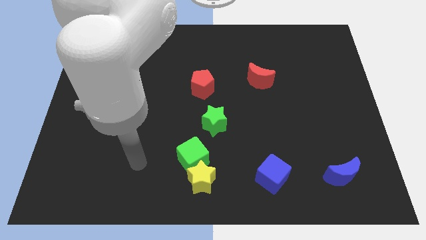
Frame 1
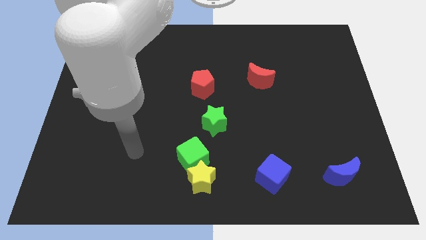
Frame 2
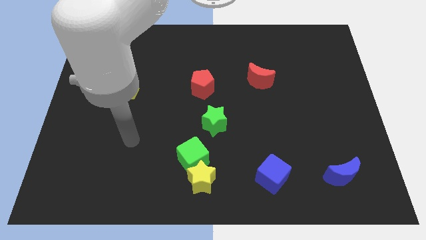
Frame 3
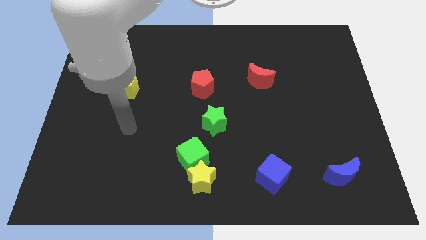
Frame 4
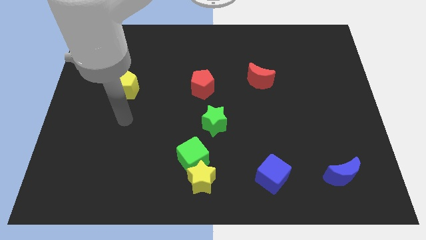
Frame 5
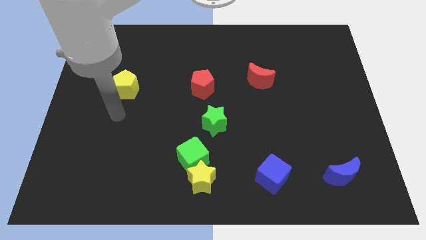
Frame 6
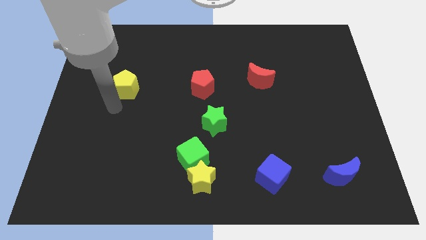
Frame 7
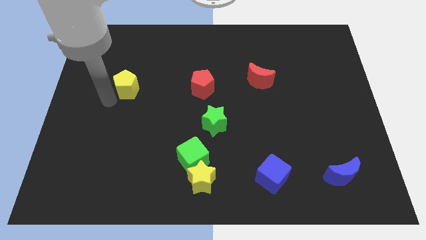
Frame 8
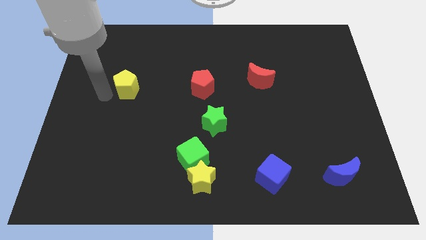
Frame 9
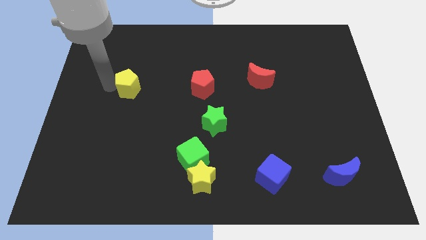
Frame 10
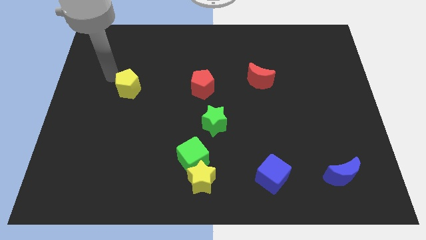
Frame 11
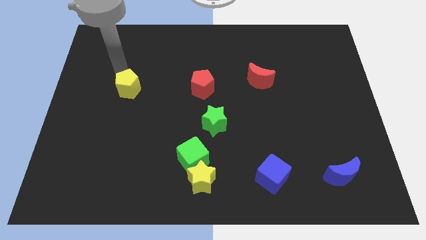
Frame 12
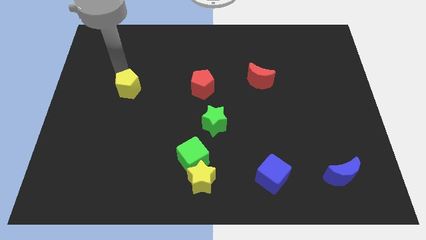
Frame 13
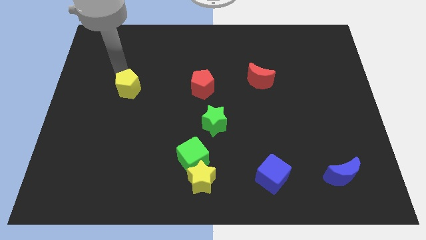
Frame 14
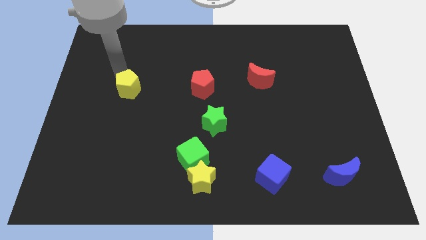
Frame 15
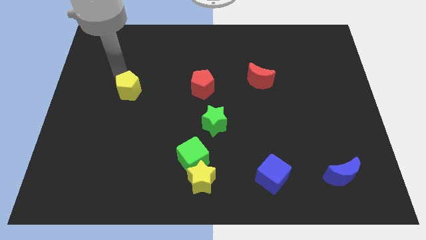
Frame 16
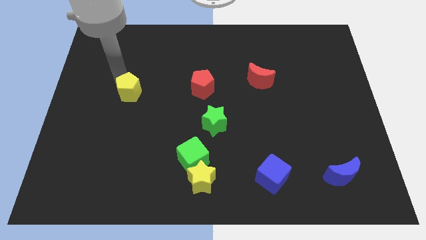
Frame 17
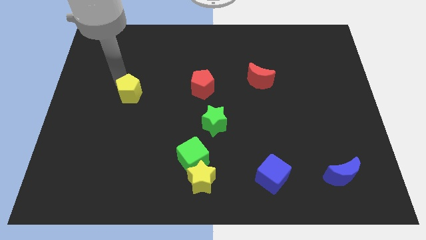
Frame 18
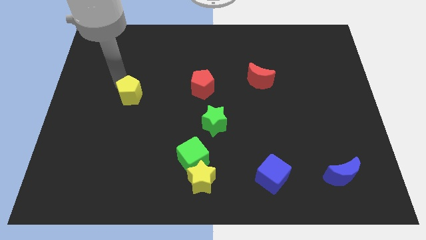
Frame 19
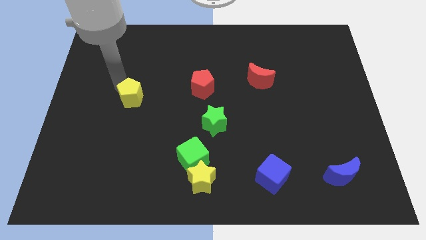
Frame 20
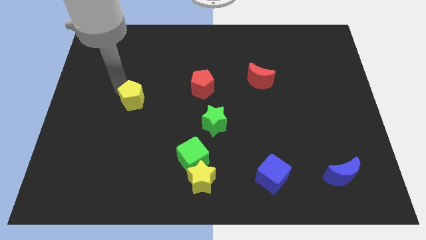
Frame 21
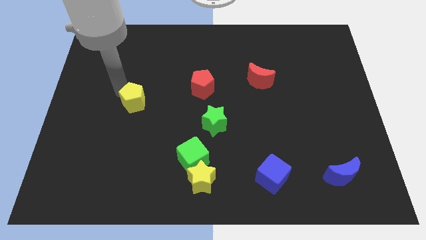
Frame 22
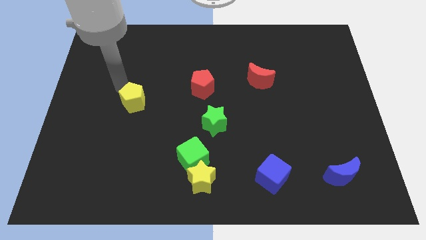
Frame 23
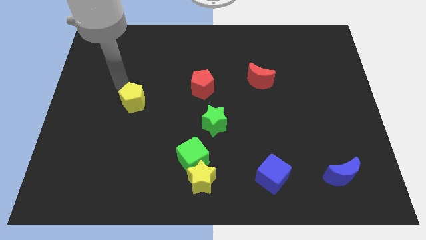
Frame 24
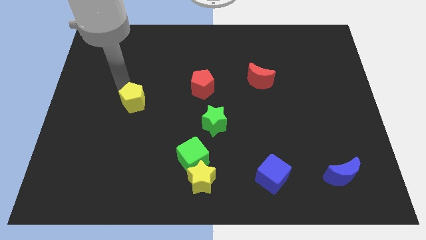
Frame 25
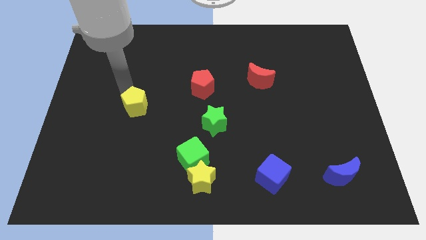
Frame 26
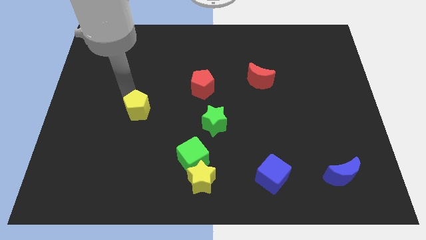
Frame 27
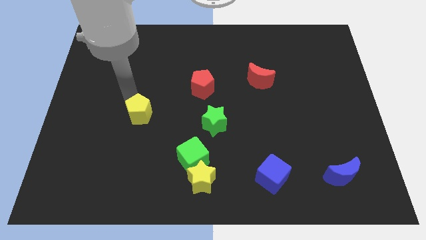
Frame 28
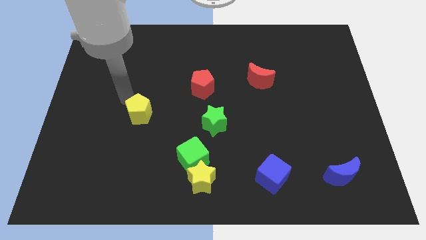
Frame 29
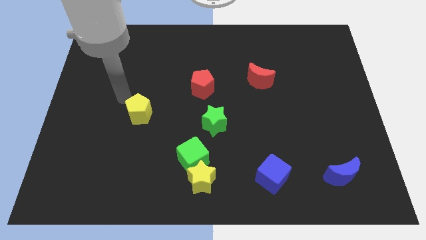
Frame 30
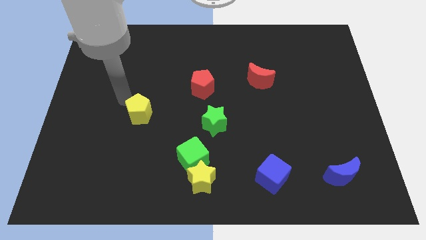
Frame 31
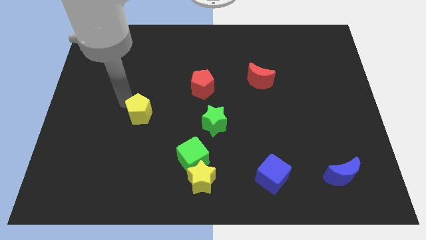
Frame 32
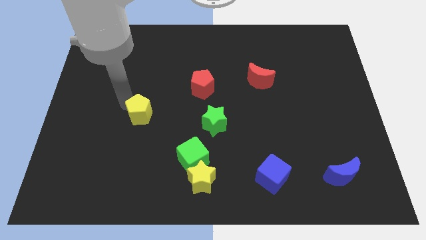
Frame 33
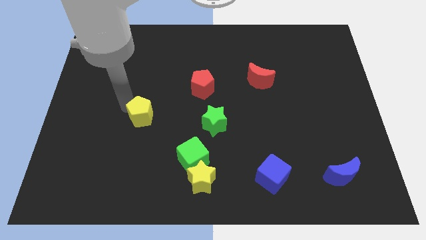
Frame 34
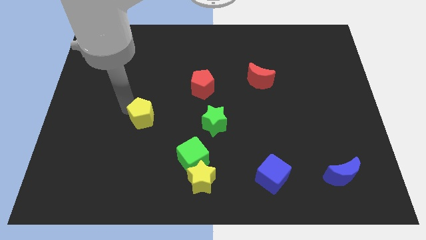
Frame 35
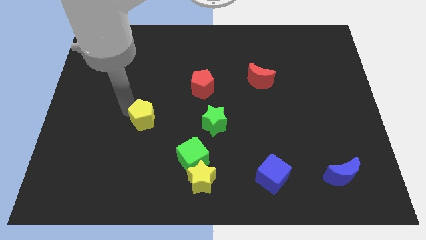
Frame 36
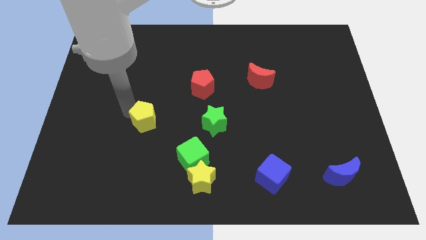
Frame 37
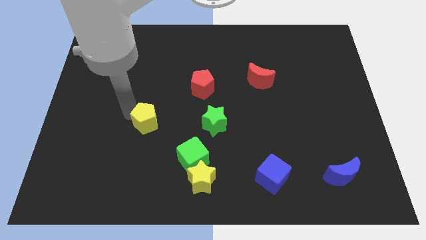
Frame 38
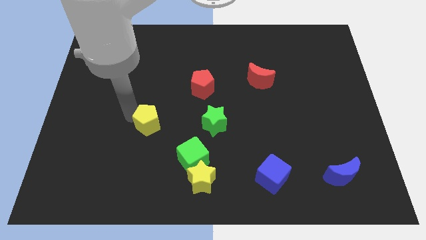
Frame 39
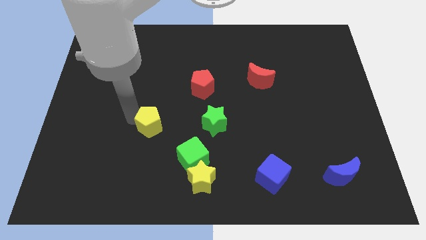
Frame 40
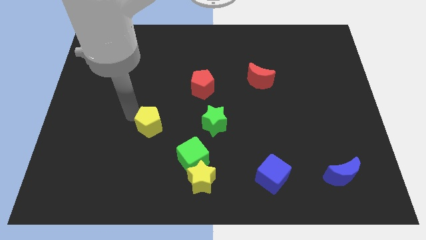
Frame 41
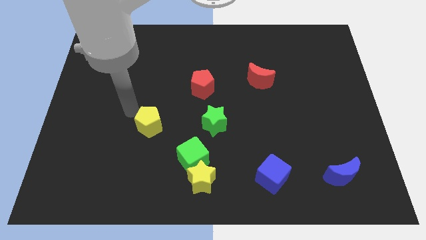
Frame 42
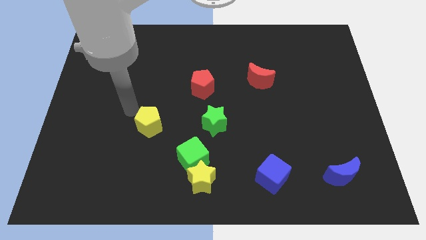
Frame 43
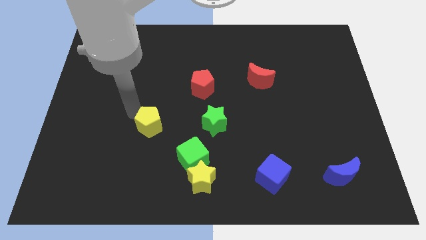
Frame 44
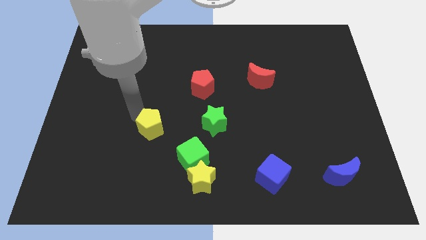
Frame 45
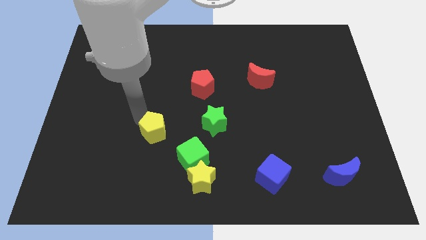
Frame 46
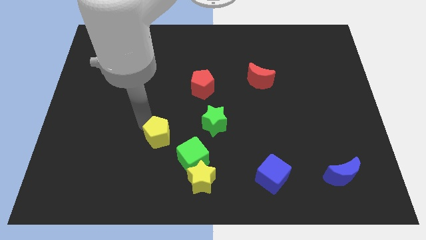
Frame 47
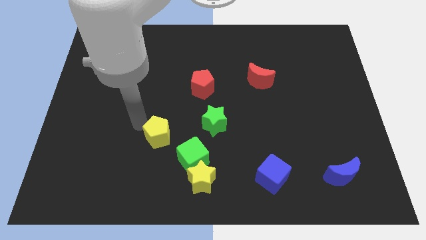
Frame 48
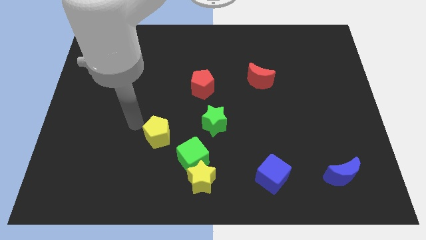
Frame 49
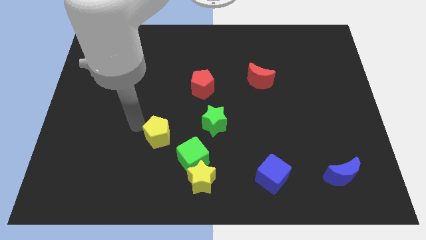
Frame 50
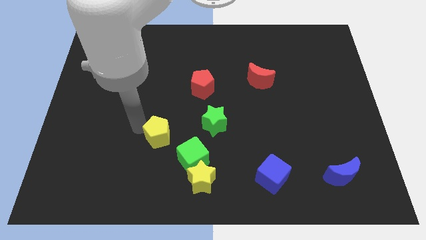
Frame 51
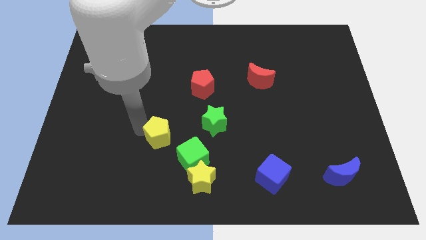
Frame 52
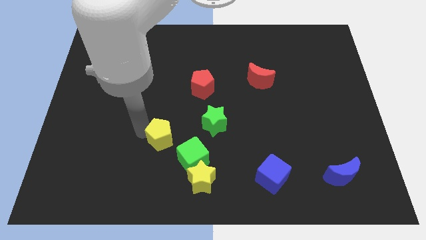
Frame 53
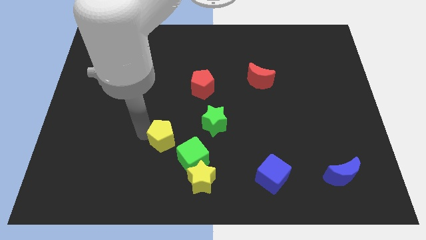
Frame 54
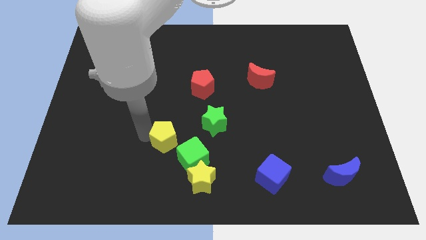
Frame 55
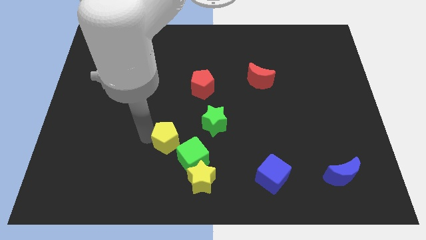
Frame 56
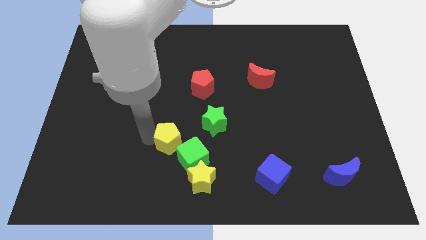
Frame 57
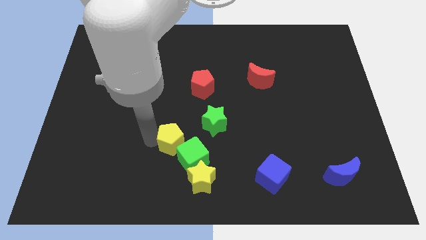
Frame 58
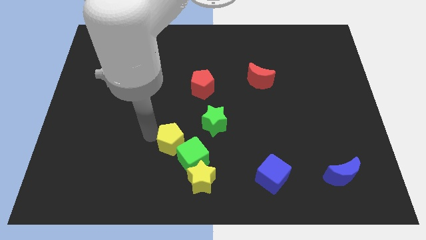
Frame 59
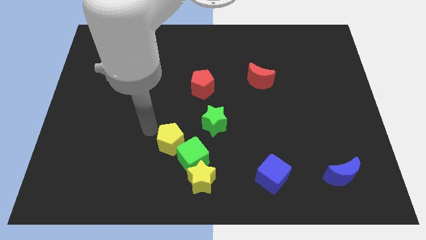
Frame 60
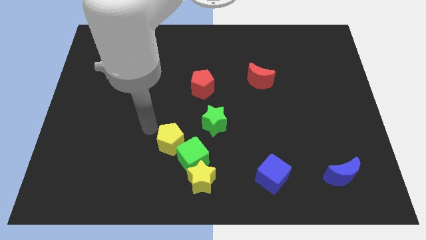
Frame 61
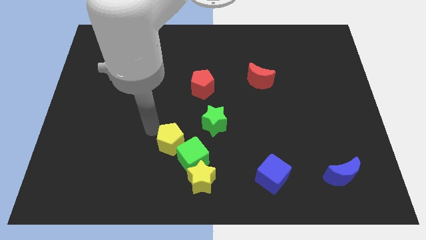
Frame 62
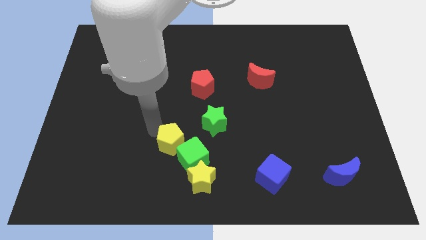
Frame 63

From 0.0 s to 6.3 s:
push the yellow pentagon to the green cube

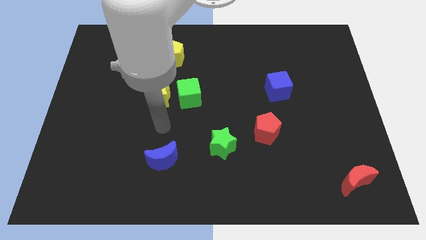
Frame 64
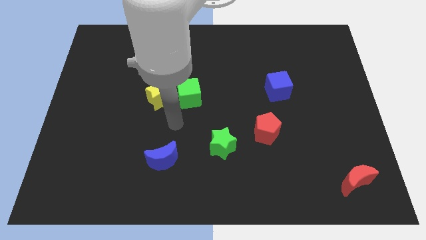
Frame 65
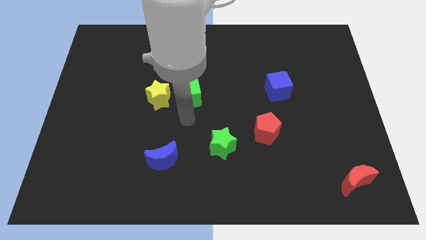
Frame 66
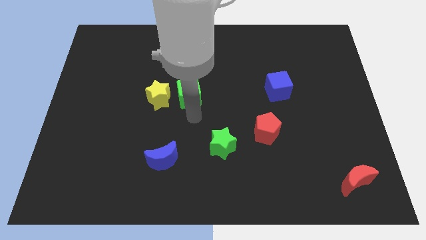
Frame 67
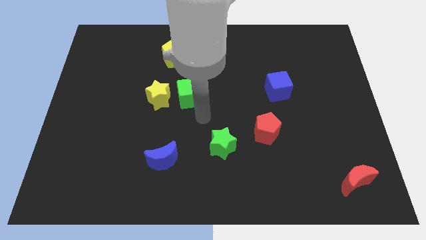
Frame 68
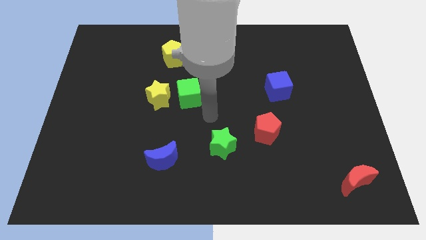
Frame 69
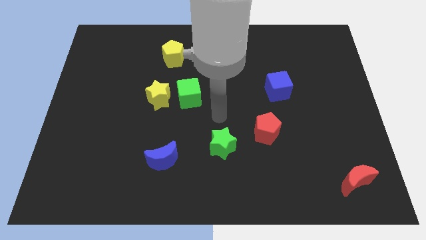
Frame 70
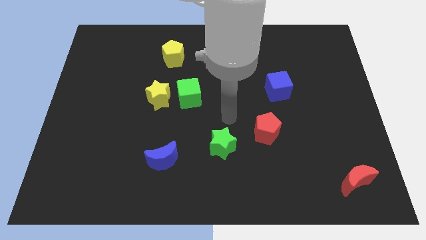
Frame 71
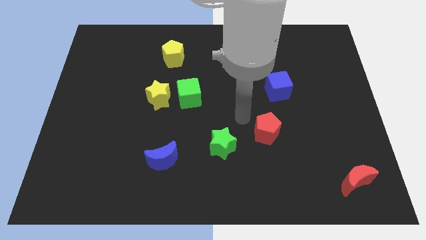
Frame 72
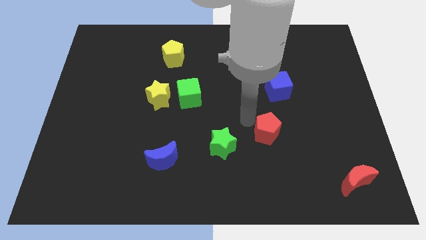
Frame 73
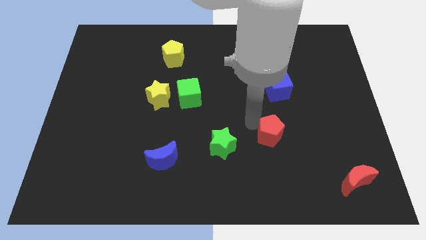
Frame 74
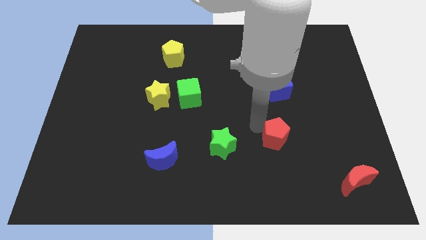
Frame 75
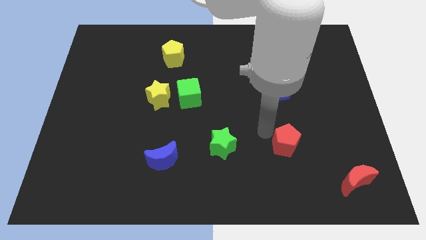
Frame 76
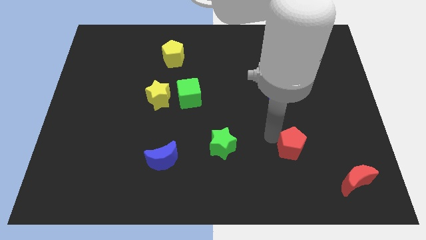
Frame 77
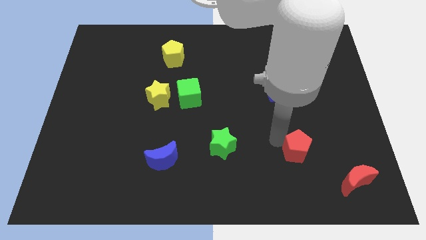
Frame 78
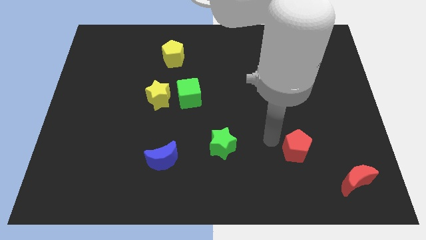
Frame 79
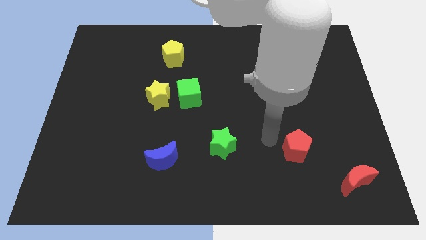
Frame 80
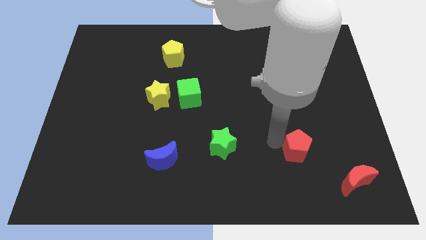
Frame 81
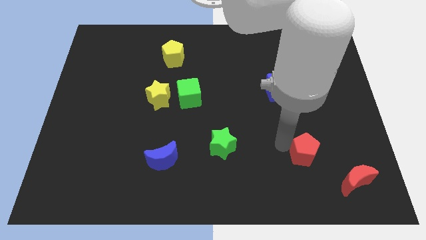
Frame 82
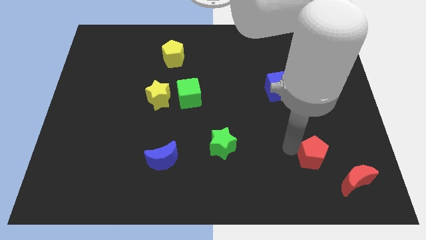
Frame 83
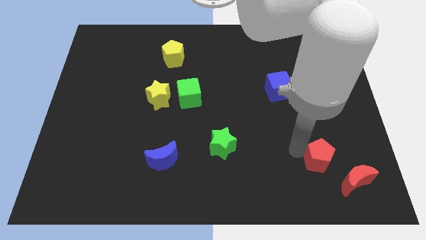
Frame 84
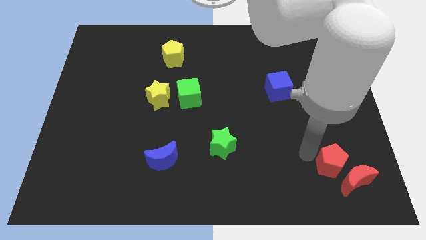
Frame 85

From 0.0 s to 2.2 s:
put the red pentagon next to the red moon
